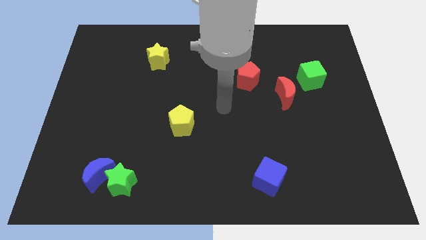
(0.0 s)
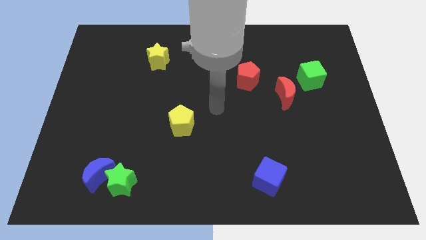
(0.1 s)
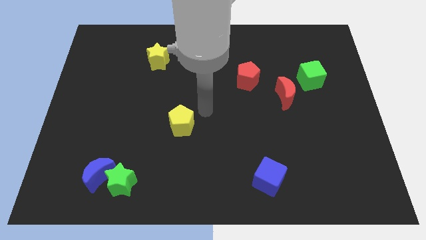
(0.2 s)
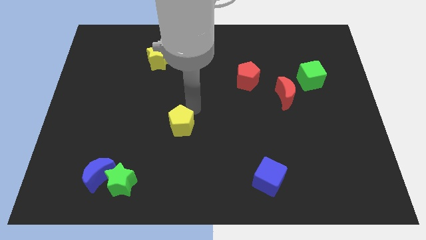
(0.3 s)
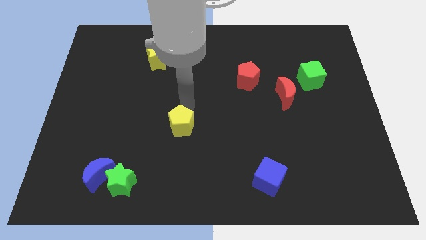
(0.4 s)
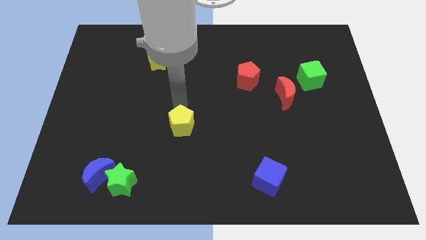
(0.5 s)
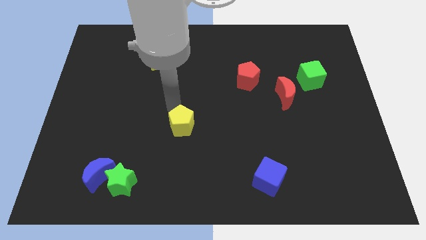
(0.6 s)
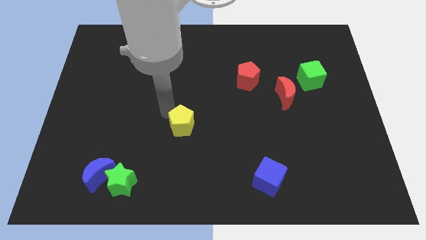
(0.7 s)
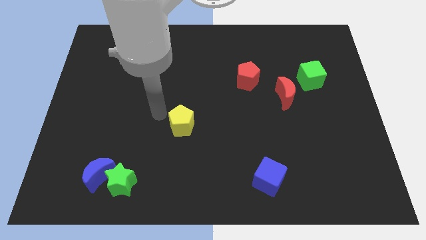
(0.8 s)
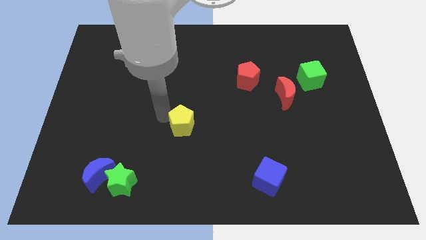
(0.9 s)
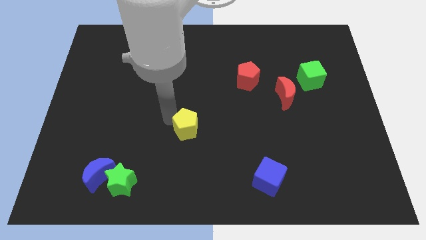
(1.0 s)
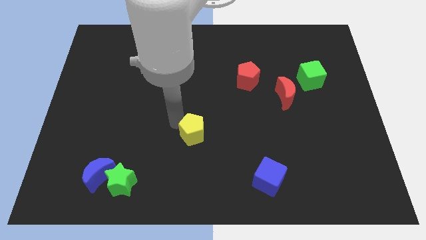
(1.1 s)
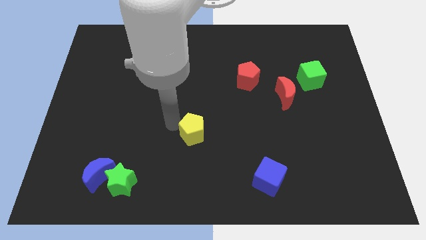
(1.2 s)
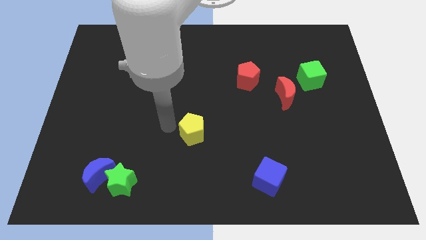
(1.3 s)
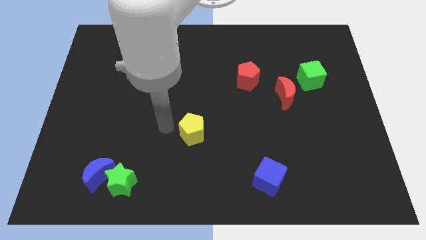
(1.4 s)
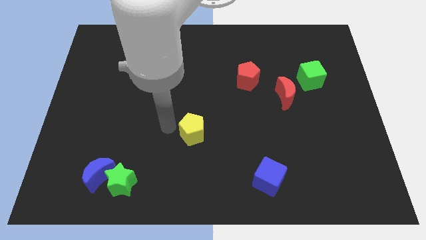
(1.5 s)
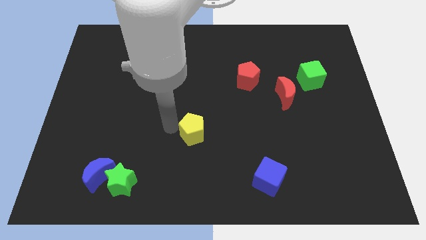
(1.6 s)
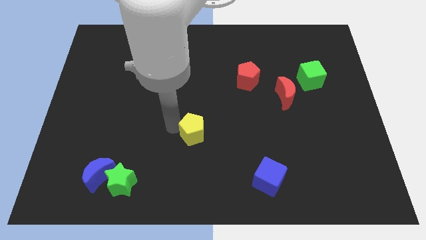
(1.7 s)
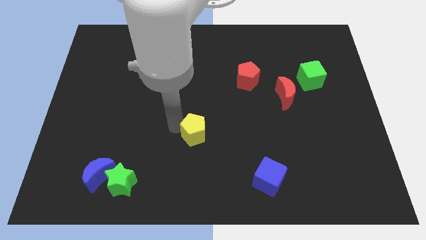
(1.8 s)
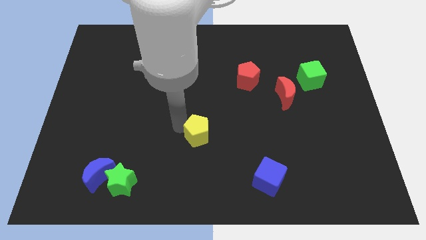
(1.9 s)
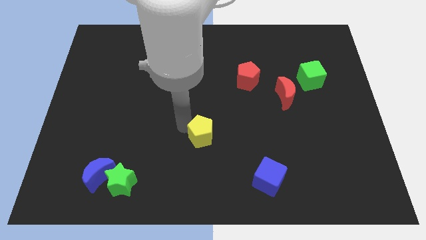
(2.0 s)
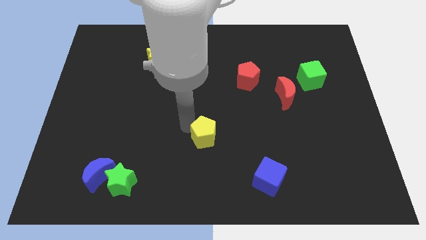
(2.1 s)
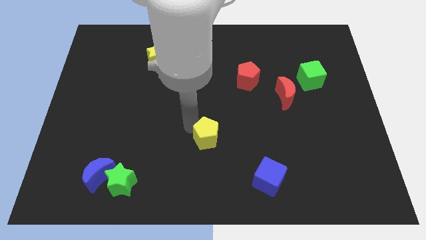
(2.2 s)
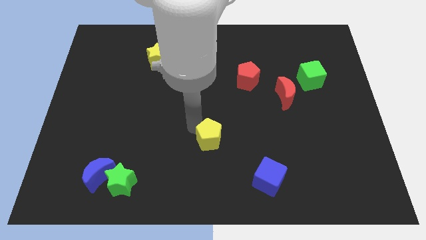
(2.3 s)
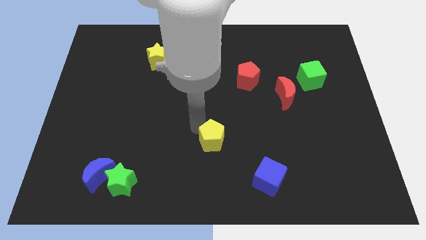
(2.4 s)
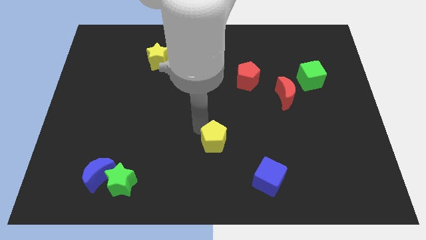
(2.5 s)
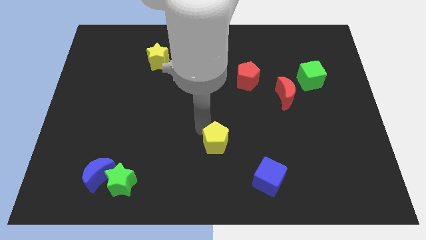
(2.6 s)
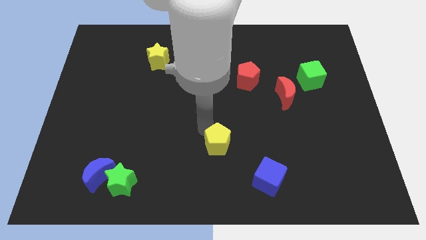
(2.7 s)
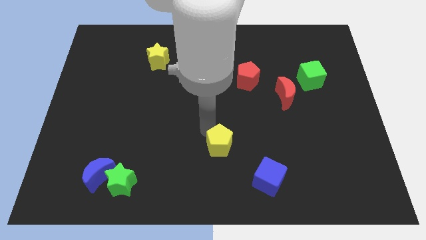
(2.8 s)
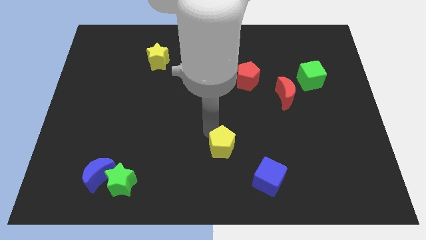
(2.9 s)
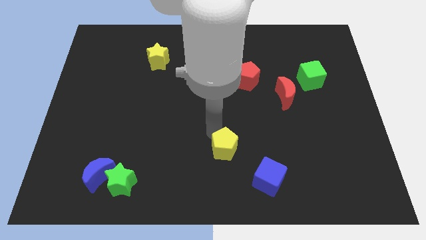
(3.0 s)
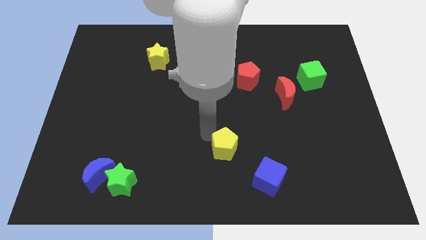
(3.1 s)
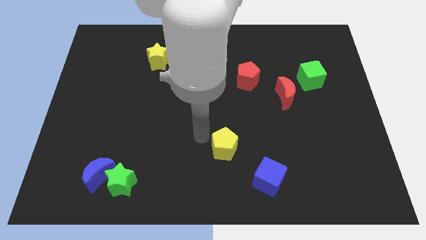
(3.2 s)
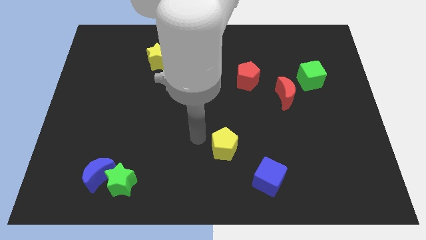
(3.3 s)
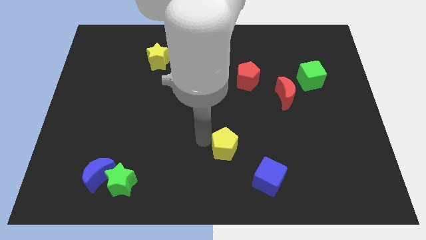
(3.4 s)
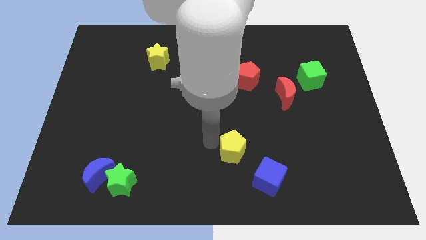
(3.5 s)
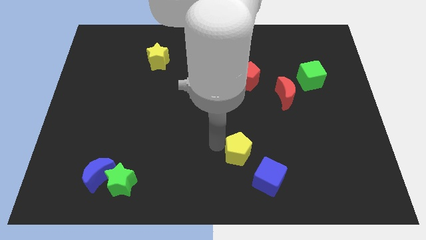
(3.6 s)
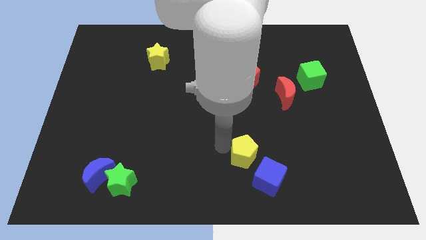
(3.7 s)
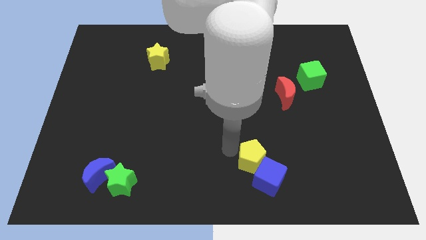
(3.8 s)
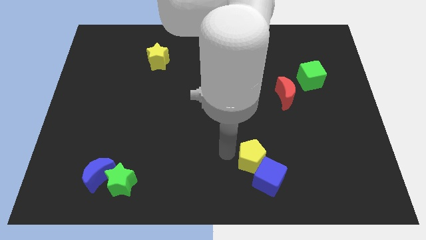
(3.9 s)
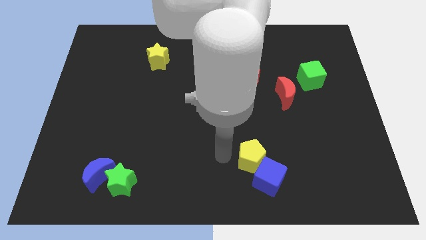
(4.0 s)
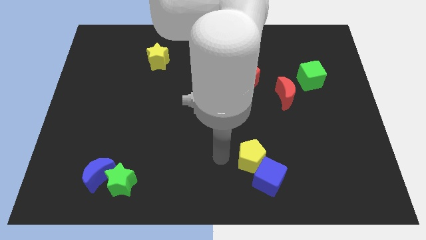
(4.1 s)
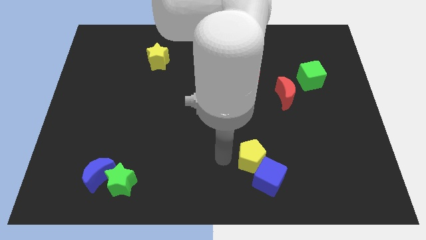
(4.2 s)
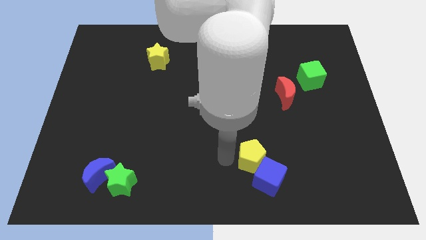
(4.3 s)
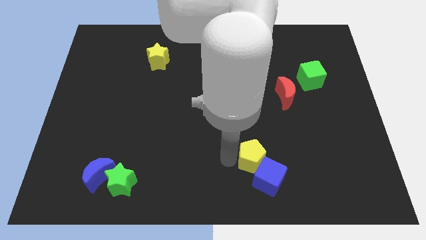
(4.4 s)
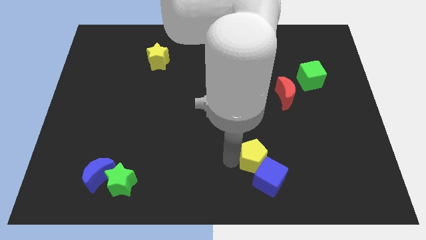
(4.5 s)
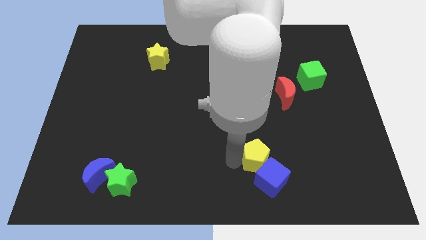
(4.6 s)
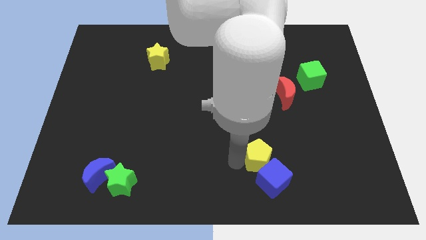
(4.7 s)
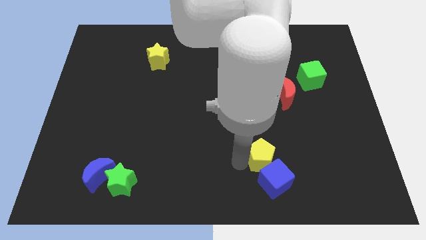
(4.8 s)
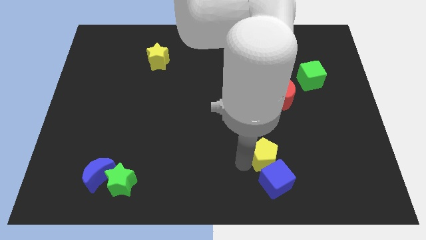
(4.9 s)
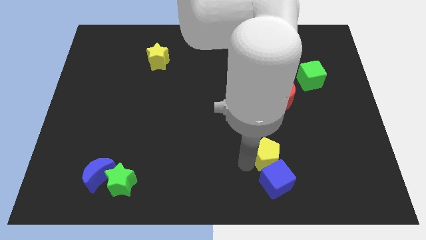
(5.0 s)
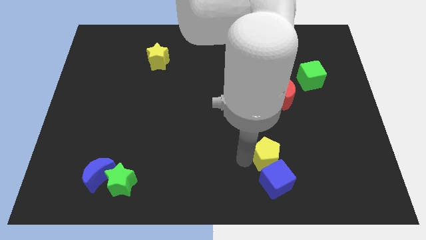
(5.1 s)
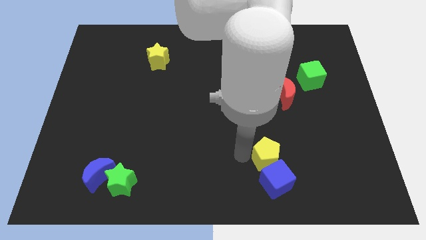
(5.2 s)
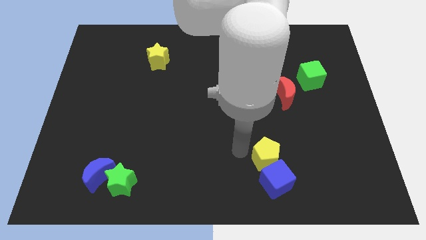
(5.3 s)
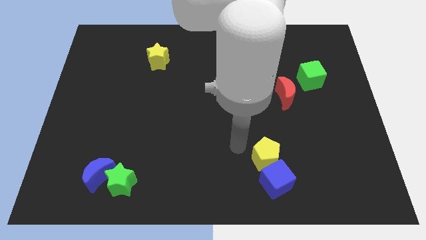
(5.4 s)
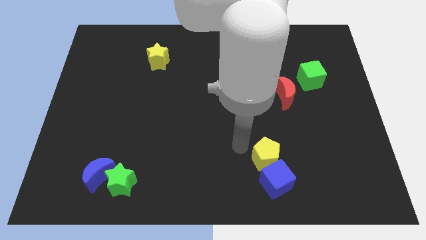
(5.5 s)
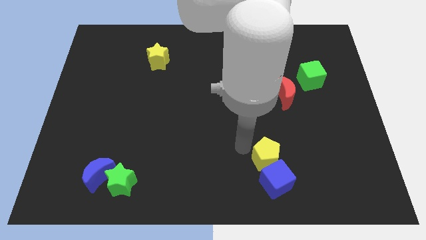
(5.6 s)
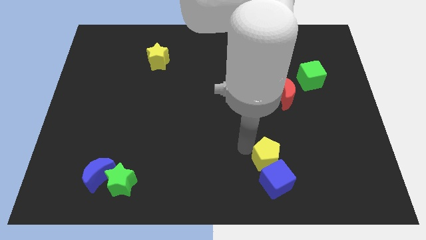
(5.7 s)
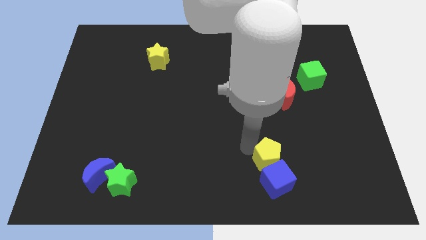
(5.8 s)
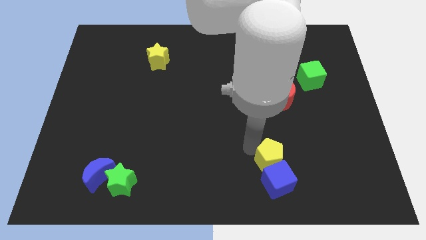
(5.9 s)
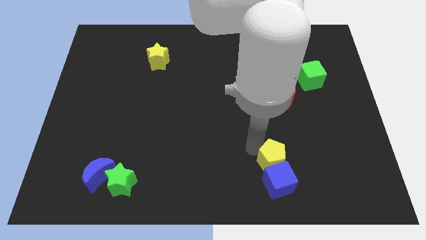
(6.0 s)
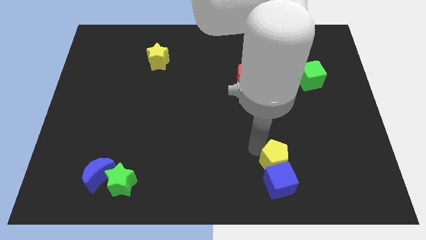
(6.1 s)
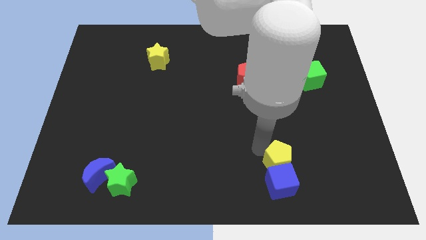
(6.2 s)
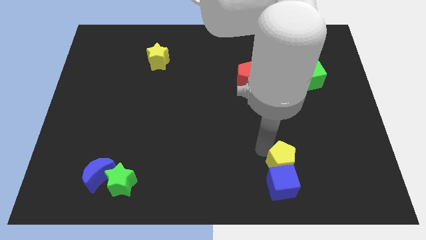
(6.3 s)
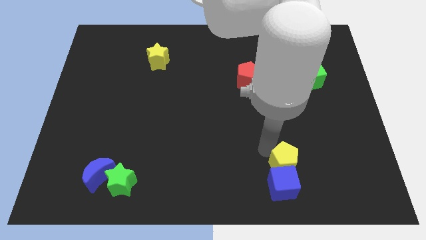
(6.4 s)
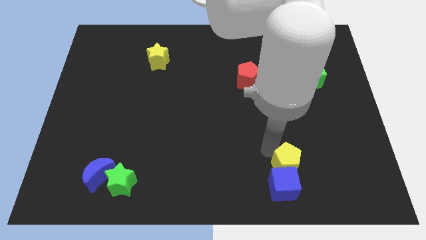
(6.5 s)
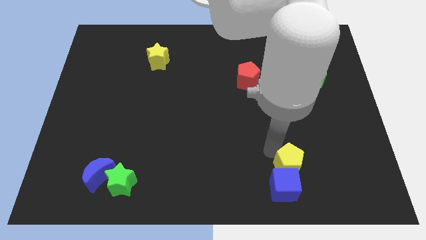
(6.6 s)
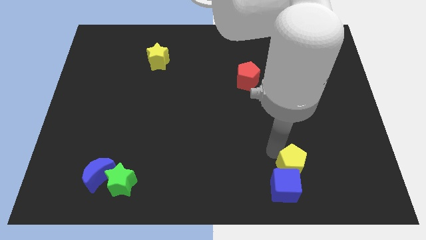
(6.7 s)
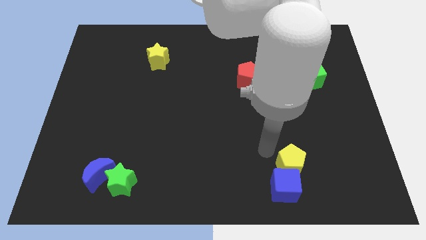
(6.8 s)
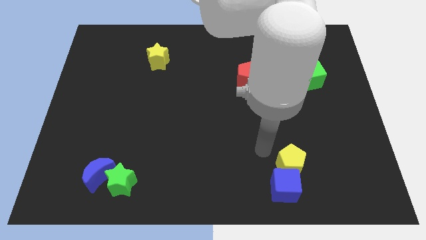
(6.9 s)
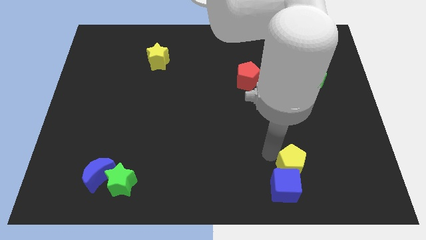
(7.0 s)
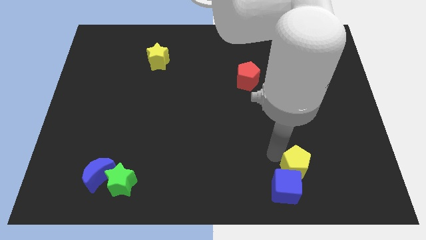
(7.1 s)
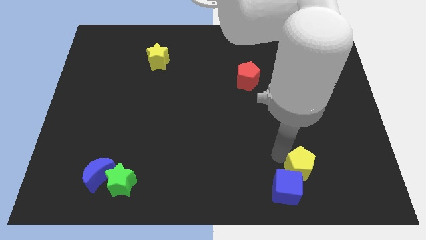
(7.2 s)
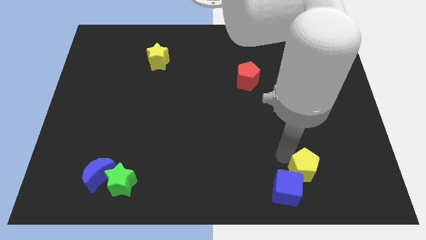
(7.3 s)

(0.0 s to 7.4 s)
slide the yellow pentagon to the right side of the blue cube
